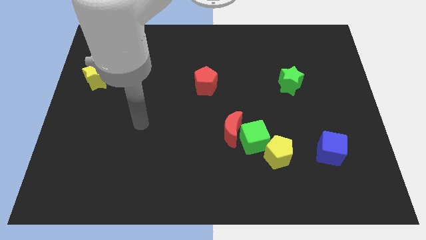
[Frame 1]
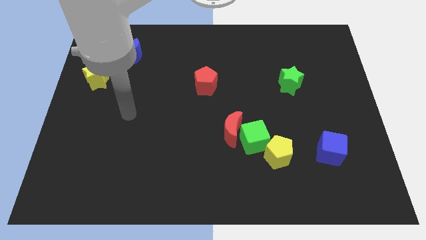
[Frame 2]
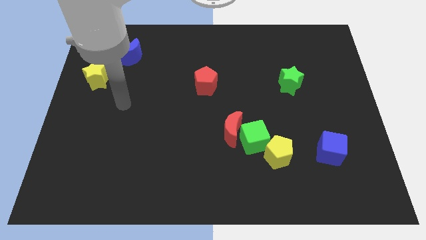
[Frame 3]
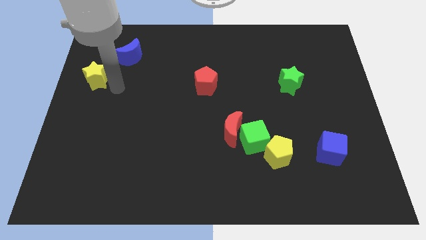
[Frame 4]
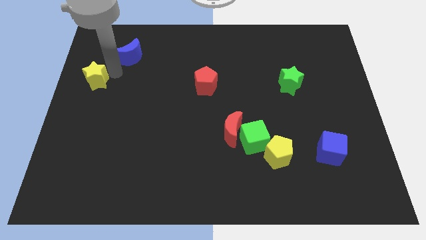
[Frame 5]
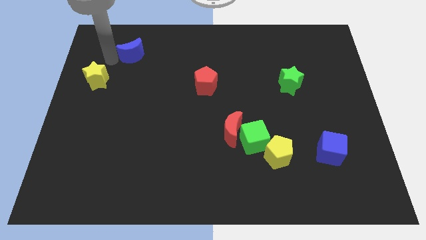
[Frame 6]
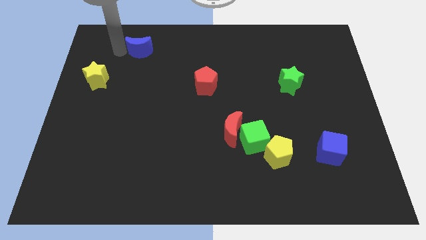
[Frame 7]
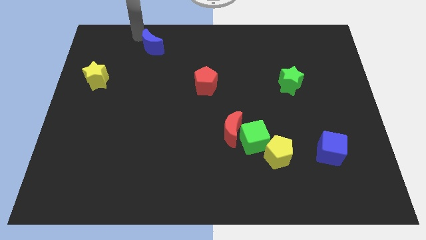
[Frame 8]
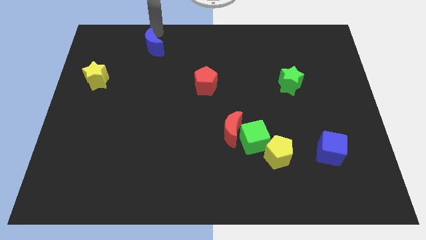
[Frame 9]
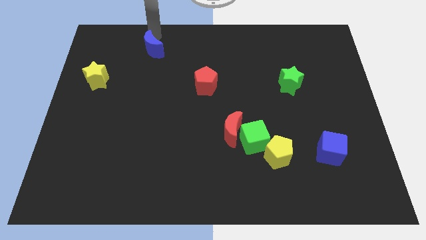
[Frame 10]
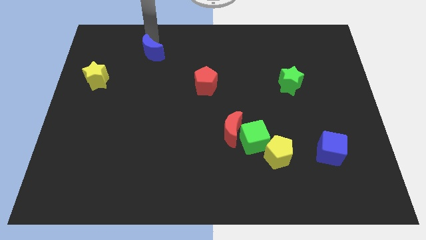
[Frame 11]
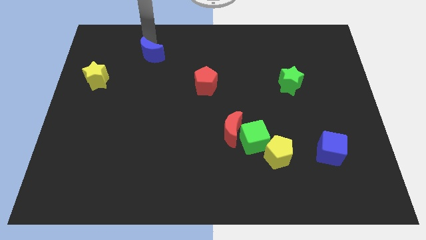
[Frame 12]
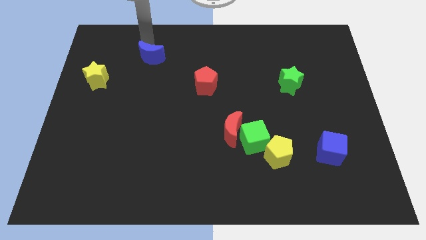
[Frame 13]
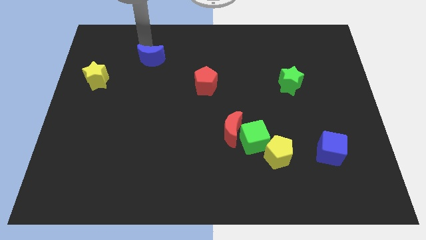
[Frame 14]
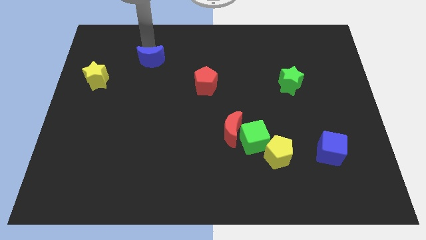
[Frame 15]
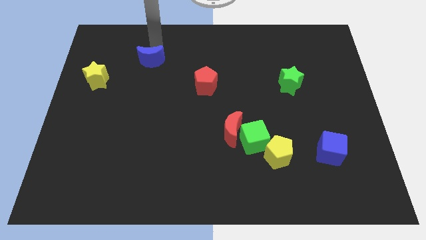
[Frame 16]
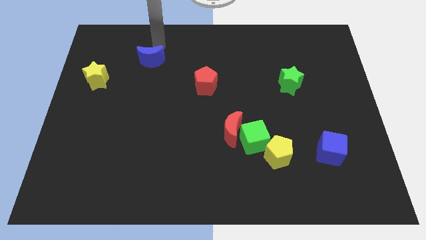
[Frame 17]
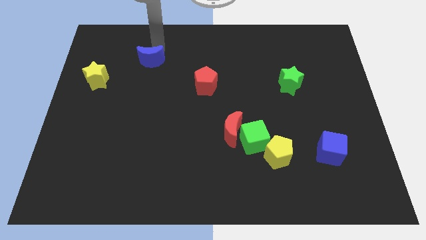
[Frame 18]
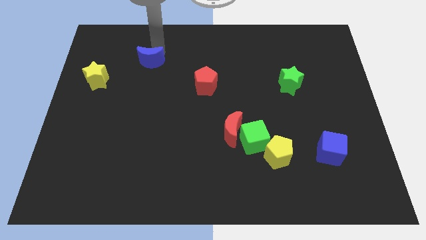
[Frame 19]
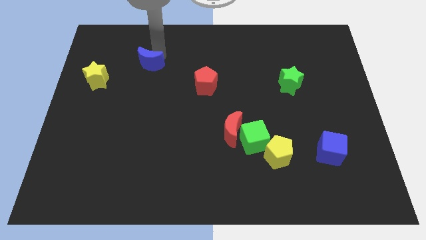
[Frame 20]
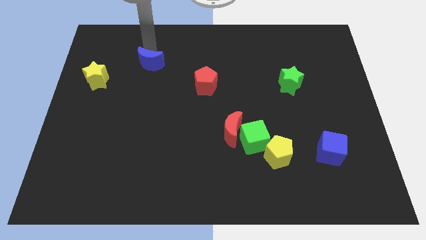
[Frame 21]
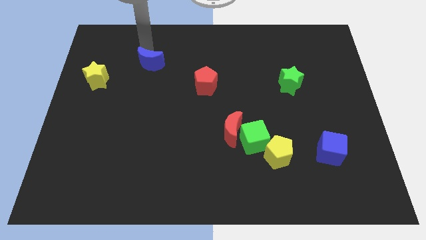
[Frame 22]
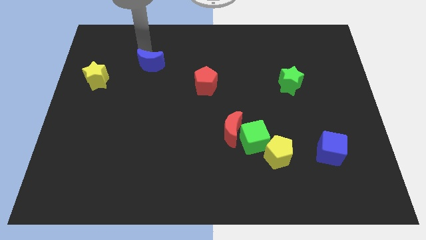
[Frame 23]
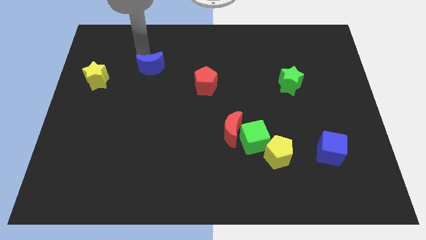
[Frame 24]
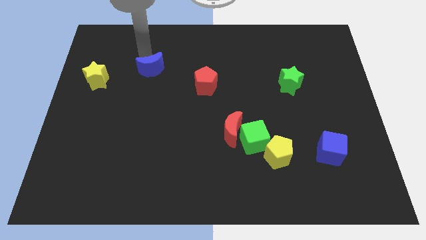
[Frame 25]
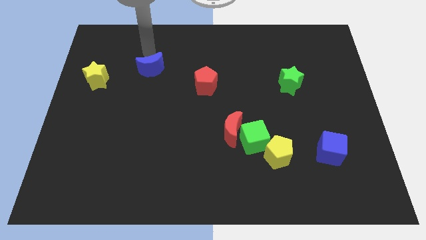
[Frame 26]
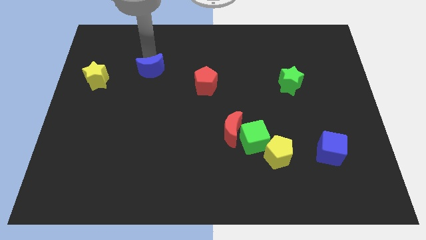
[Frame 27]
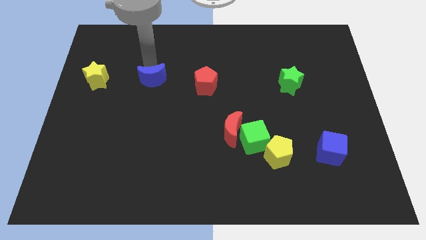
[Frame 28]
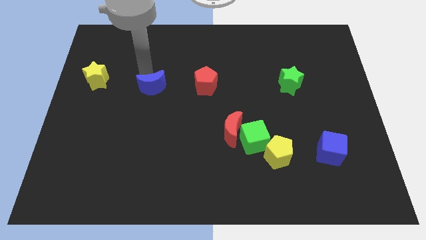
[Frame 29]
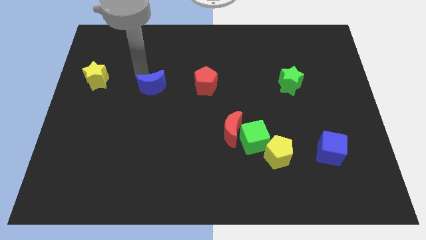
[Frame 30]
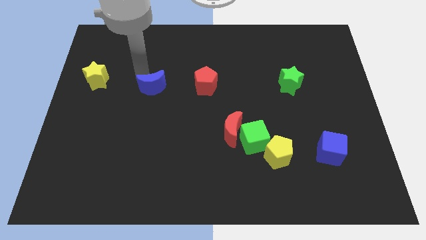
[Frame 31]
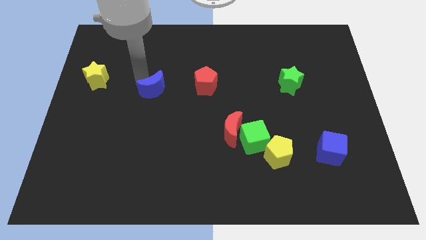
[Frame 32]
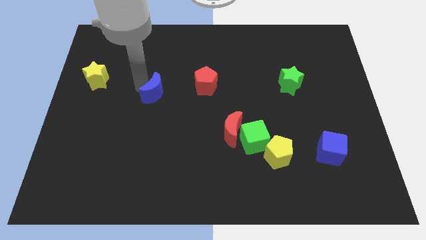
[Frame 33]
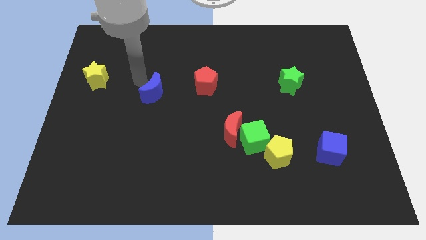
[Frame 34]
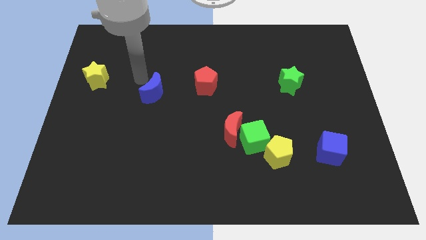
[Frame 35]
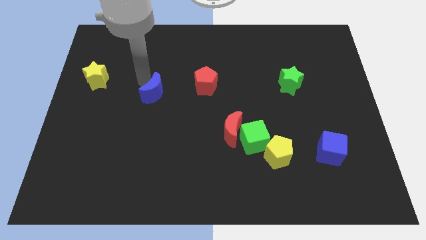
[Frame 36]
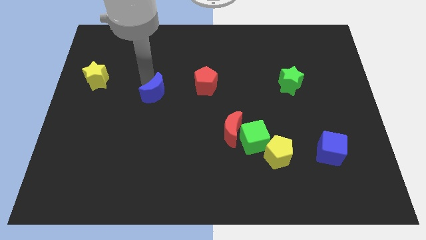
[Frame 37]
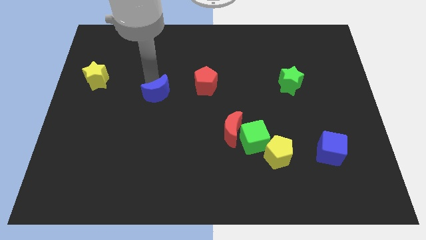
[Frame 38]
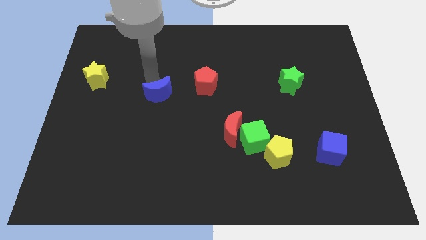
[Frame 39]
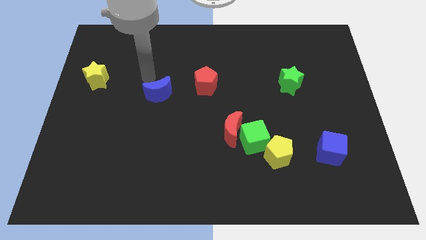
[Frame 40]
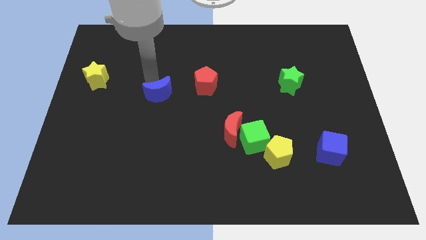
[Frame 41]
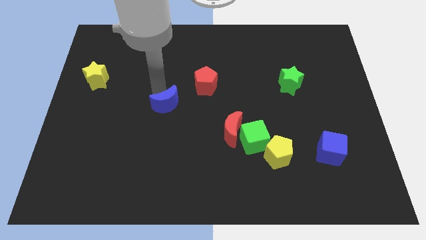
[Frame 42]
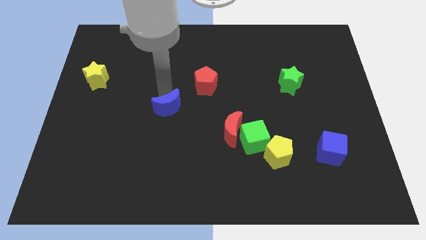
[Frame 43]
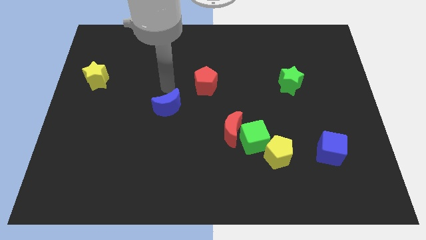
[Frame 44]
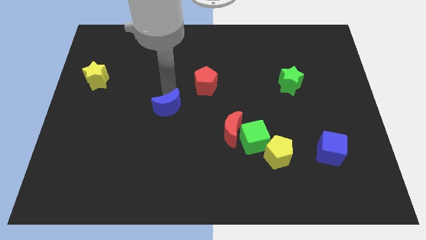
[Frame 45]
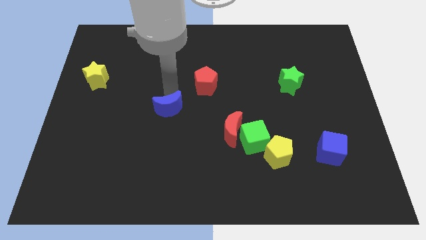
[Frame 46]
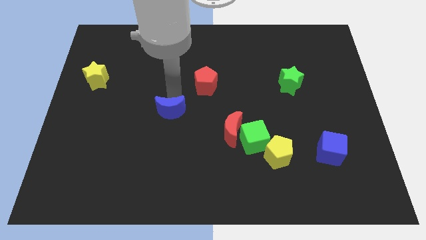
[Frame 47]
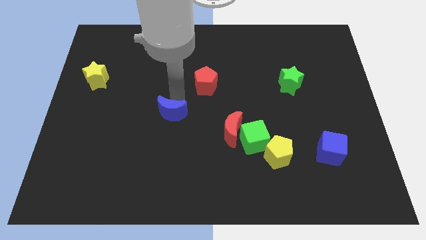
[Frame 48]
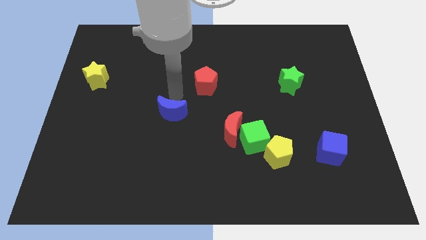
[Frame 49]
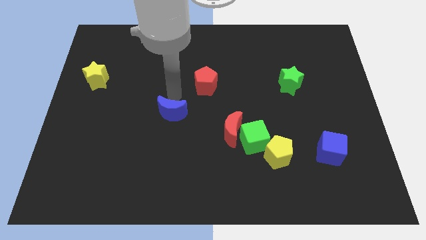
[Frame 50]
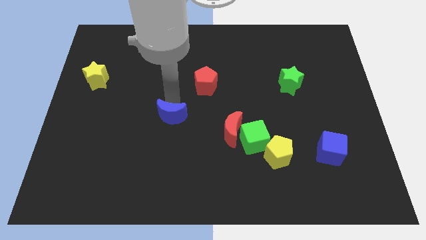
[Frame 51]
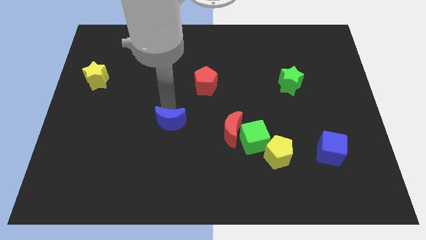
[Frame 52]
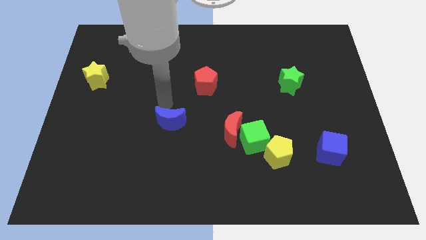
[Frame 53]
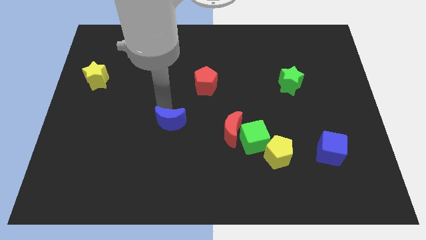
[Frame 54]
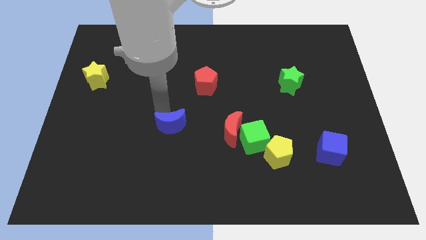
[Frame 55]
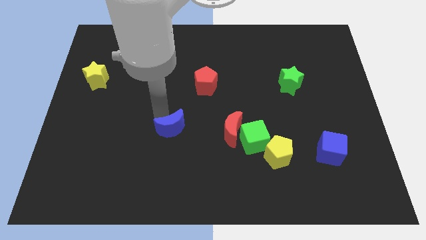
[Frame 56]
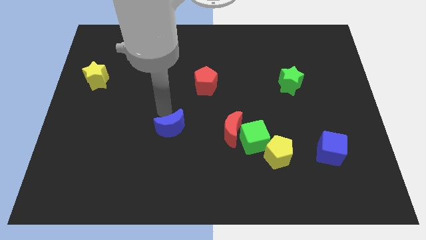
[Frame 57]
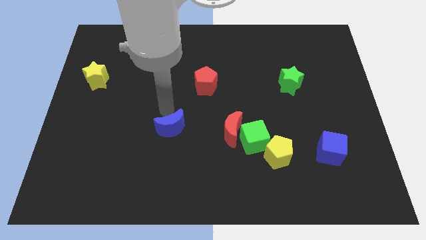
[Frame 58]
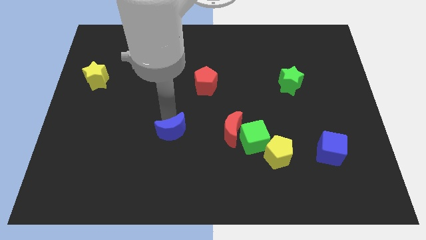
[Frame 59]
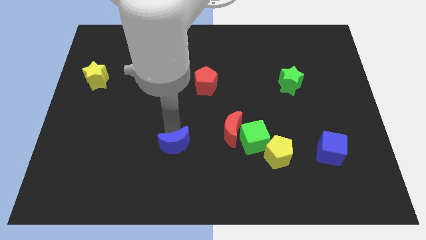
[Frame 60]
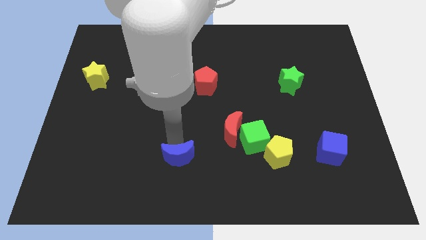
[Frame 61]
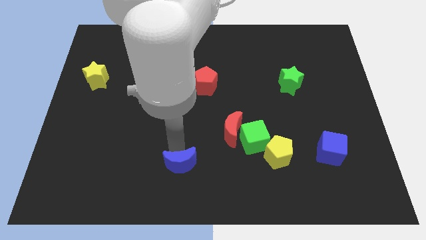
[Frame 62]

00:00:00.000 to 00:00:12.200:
move the blue moon to the bottom

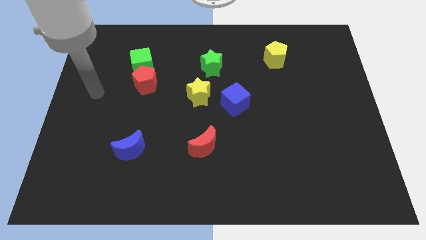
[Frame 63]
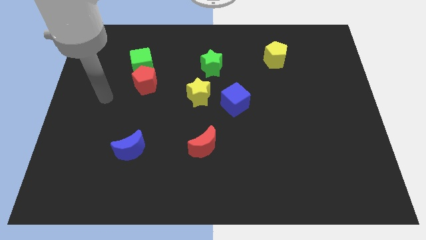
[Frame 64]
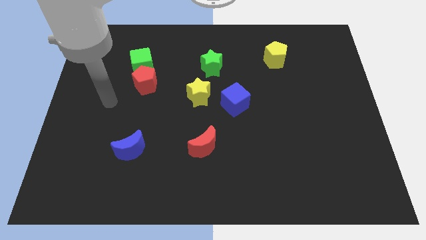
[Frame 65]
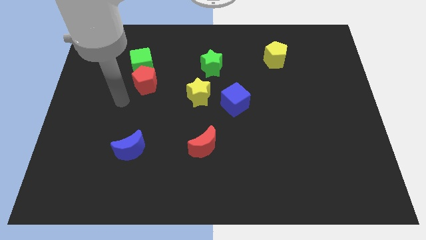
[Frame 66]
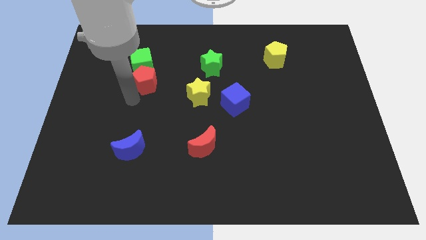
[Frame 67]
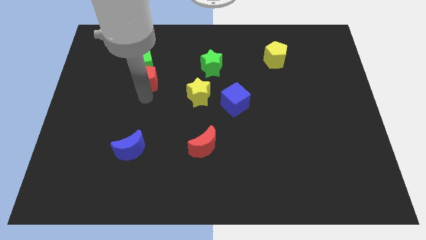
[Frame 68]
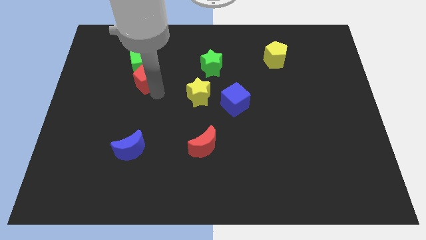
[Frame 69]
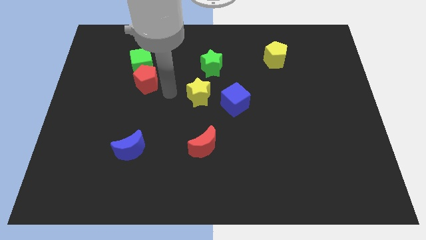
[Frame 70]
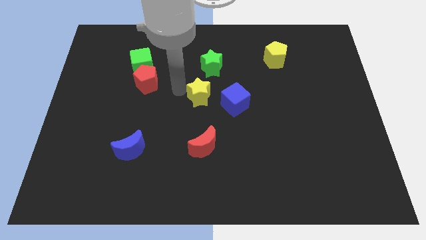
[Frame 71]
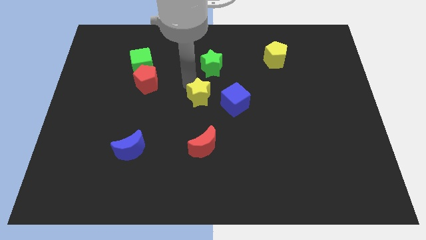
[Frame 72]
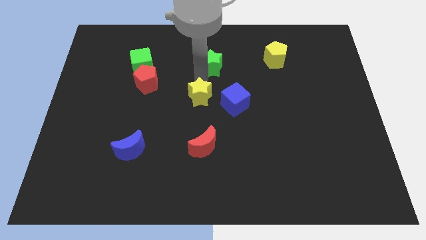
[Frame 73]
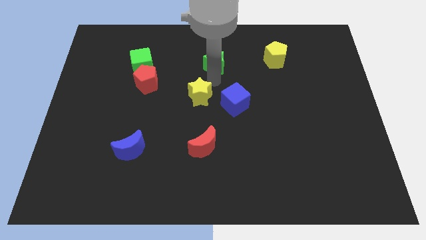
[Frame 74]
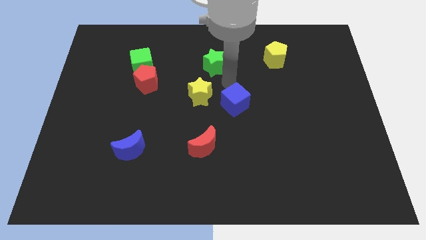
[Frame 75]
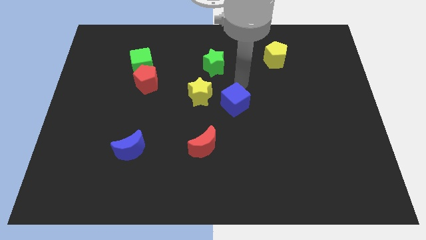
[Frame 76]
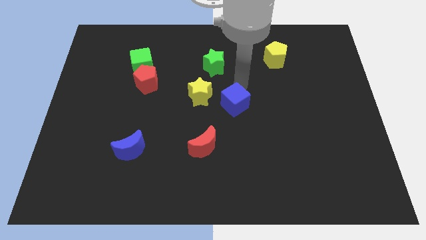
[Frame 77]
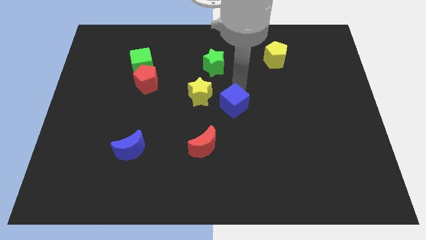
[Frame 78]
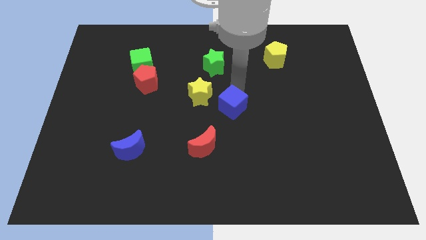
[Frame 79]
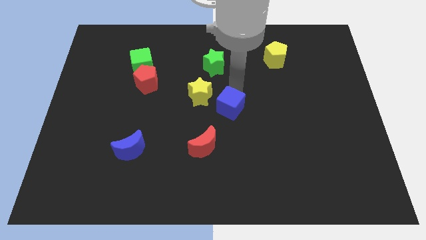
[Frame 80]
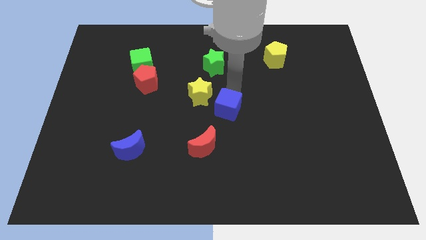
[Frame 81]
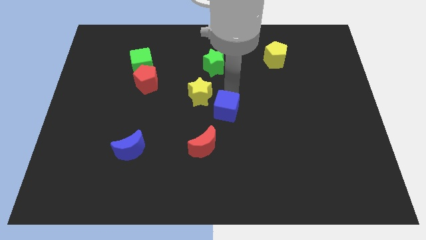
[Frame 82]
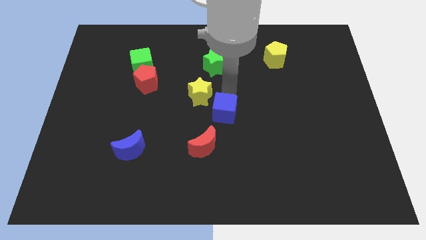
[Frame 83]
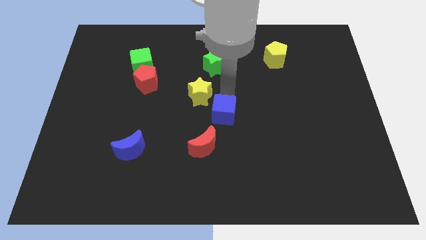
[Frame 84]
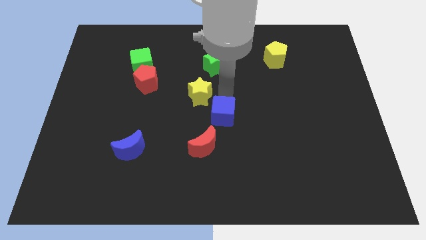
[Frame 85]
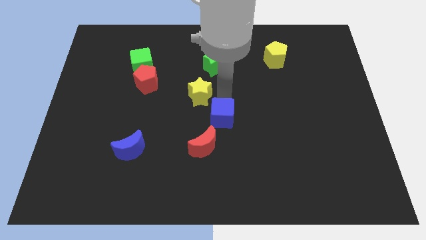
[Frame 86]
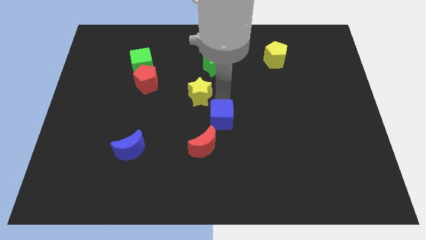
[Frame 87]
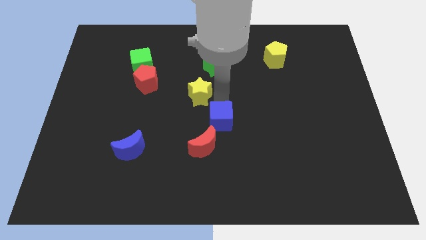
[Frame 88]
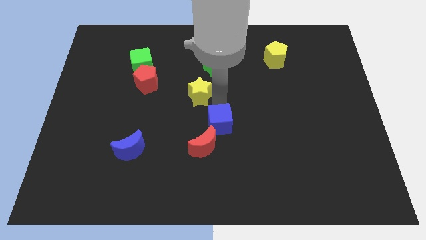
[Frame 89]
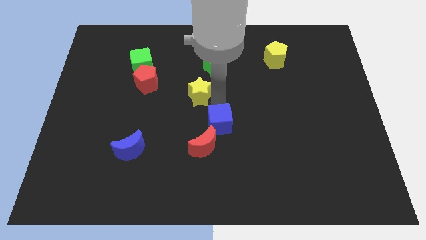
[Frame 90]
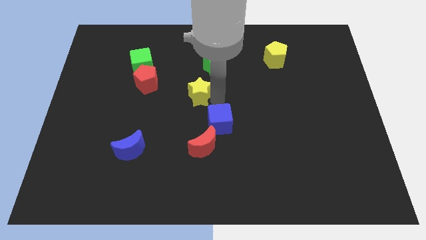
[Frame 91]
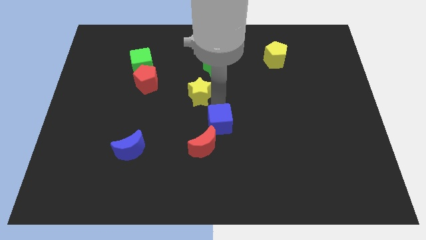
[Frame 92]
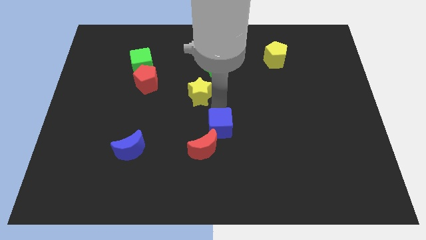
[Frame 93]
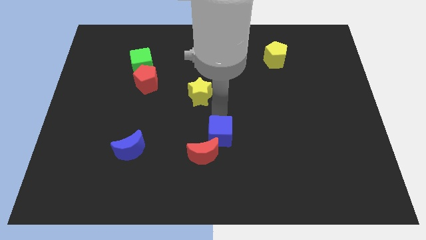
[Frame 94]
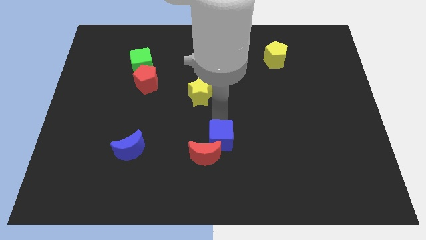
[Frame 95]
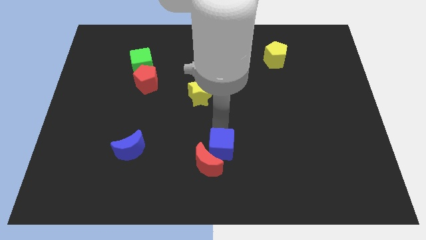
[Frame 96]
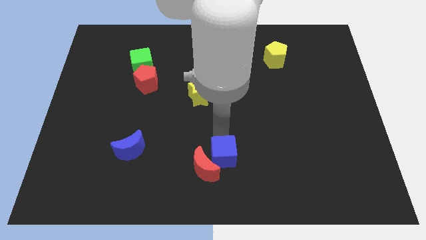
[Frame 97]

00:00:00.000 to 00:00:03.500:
move the blue cube to the bottom
